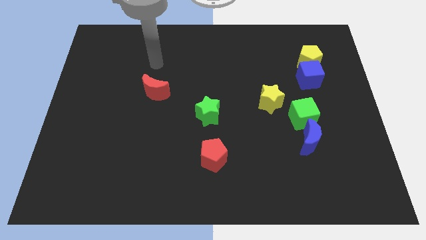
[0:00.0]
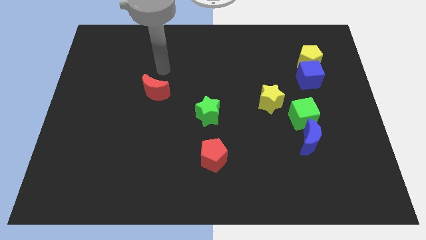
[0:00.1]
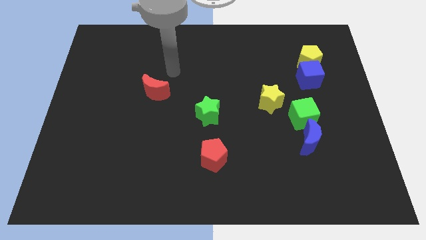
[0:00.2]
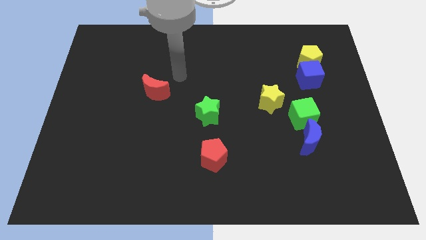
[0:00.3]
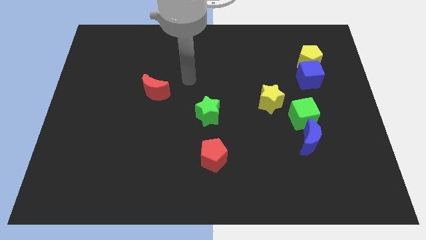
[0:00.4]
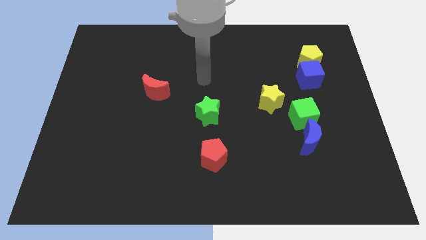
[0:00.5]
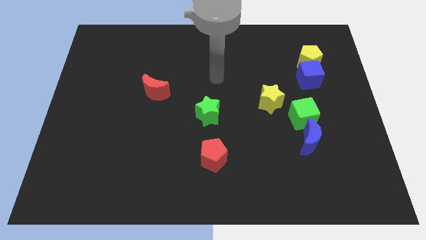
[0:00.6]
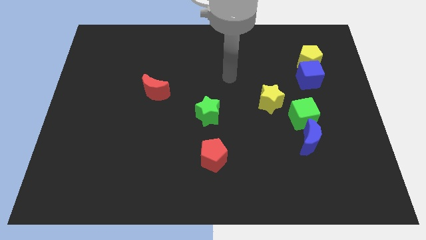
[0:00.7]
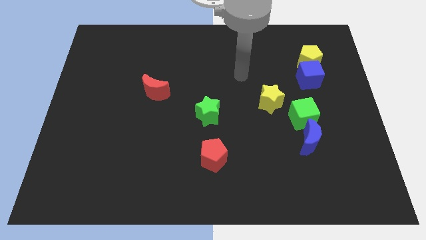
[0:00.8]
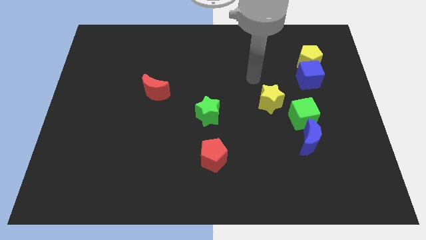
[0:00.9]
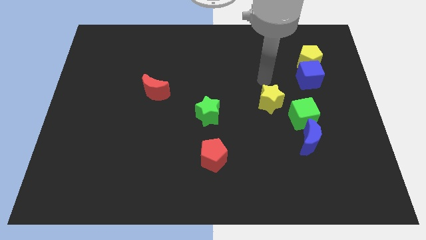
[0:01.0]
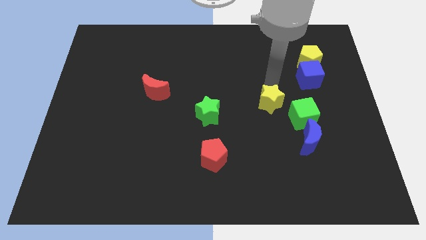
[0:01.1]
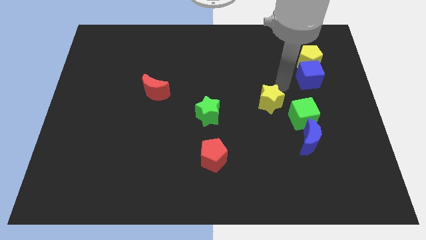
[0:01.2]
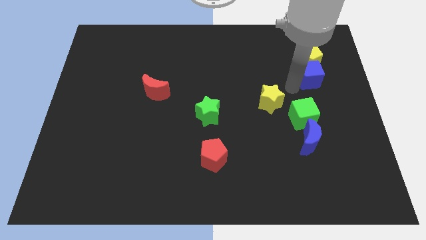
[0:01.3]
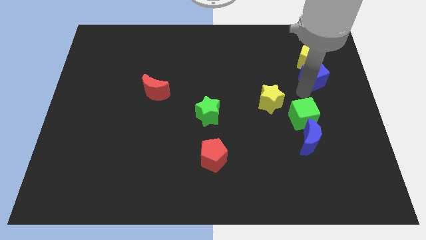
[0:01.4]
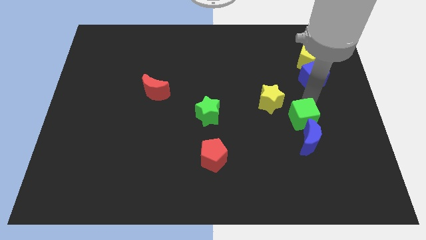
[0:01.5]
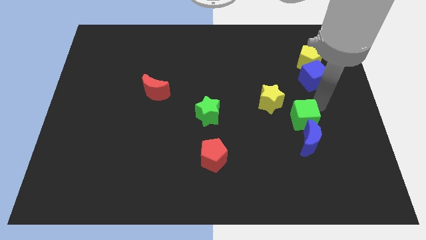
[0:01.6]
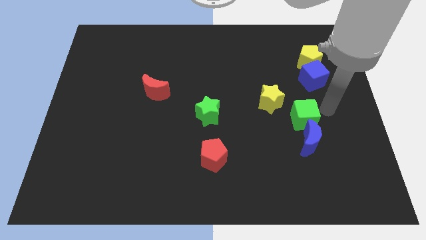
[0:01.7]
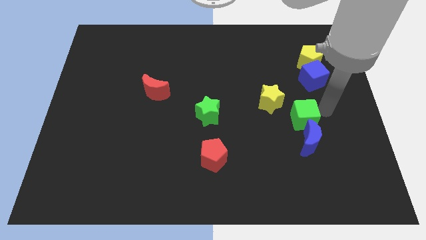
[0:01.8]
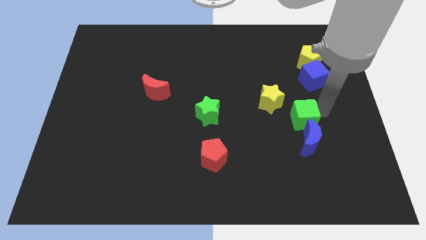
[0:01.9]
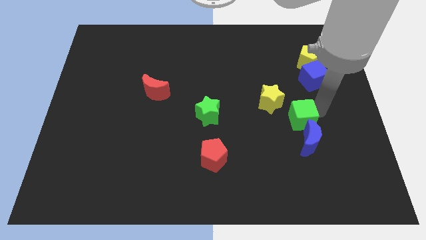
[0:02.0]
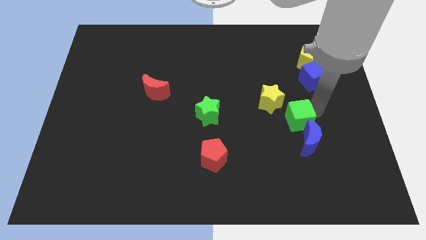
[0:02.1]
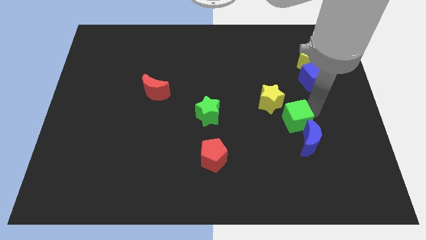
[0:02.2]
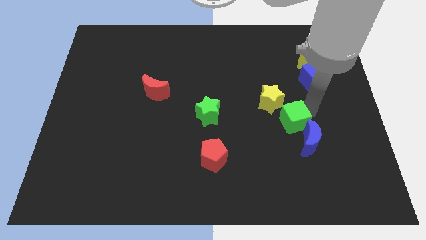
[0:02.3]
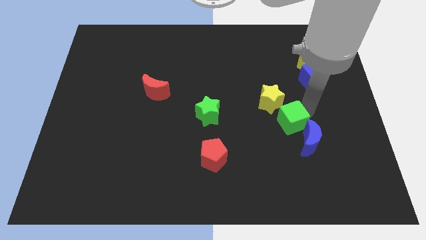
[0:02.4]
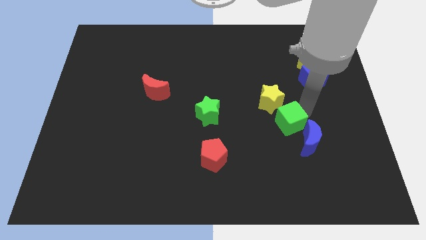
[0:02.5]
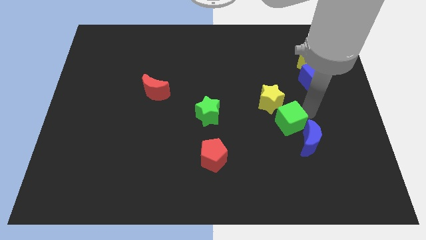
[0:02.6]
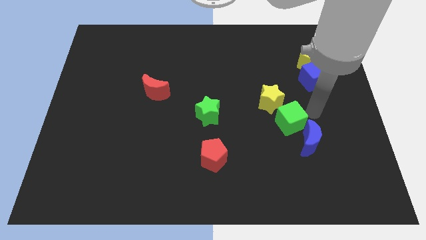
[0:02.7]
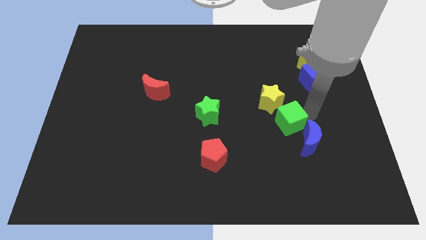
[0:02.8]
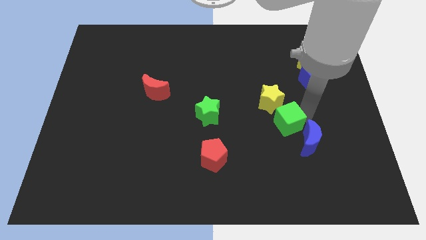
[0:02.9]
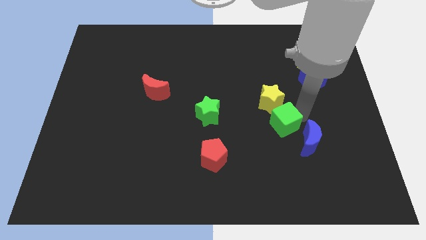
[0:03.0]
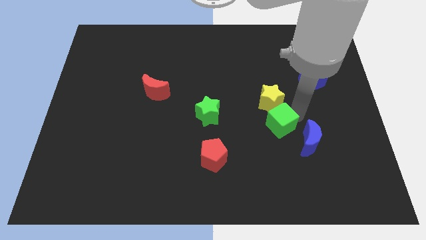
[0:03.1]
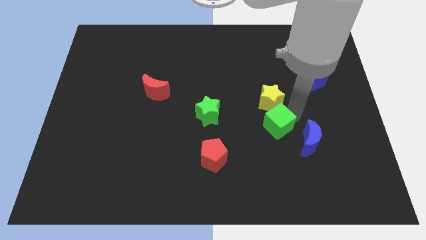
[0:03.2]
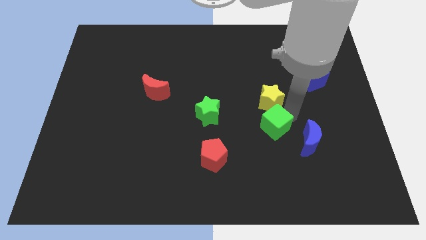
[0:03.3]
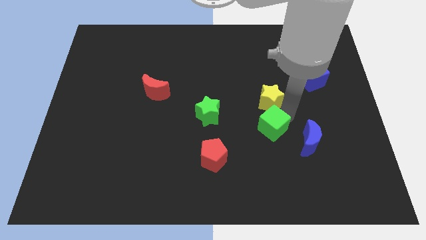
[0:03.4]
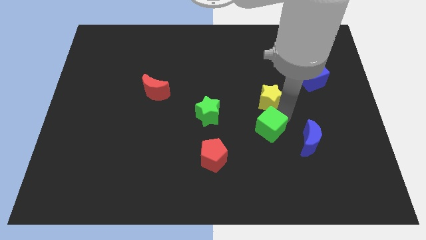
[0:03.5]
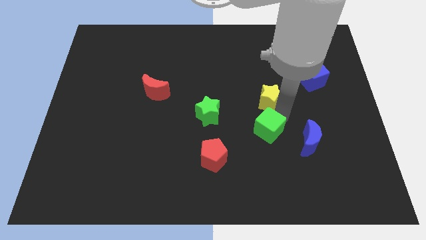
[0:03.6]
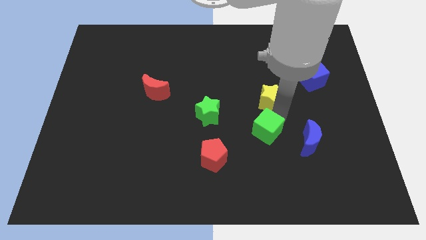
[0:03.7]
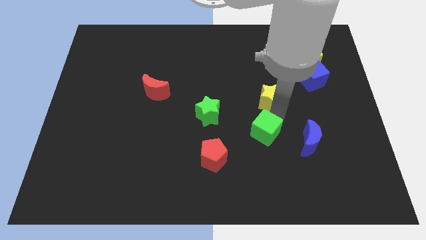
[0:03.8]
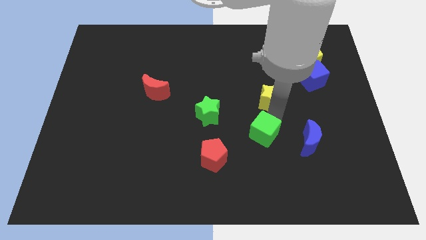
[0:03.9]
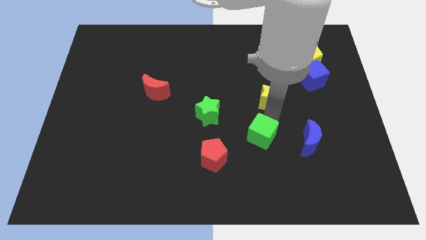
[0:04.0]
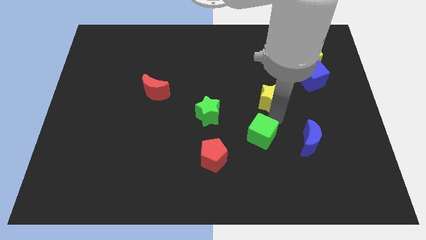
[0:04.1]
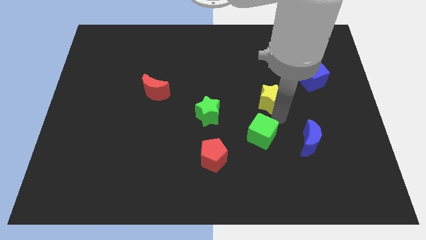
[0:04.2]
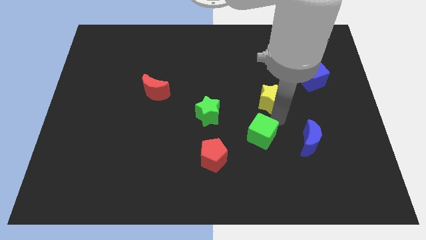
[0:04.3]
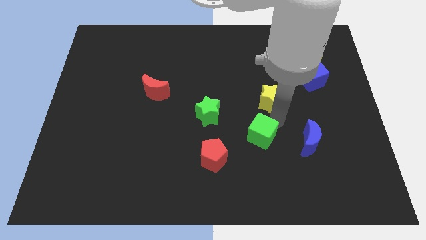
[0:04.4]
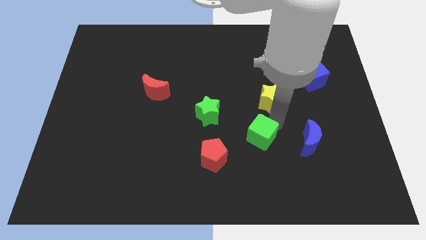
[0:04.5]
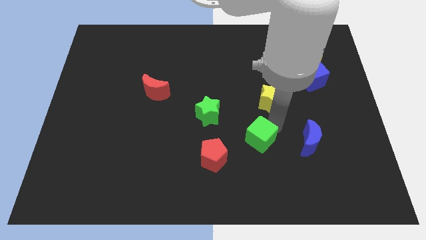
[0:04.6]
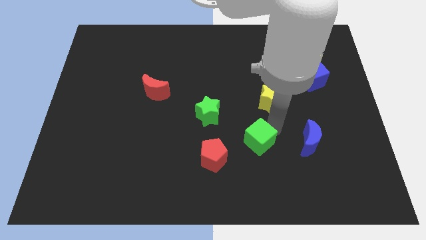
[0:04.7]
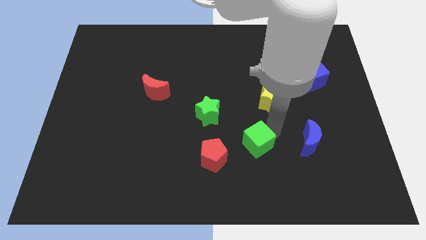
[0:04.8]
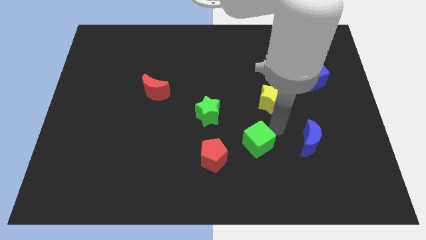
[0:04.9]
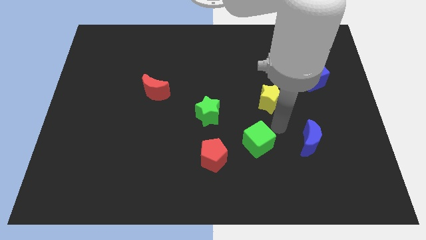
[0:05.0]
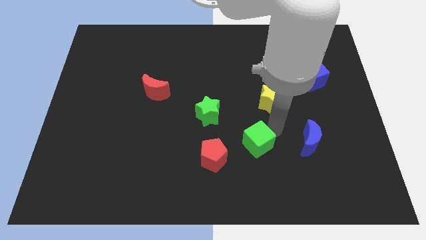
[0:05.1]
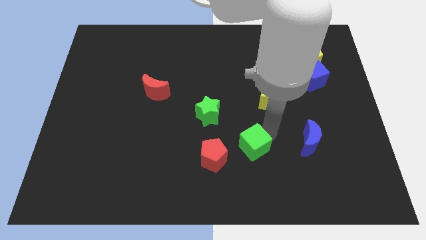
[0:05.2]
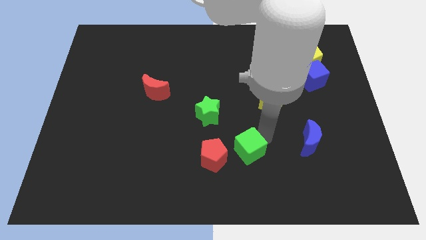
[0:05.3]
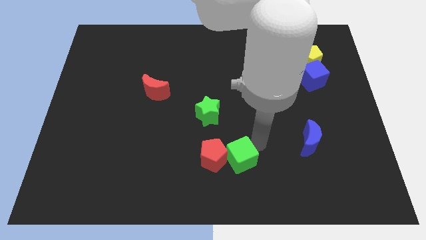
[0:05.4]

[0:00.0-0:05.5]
move the green cube next to the red pentagon

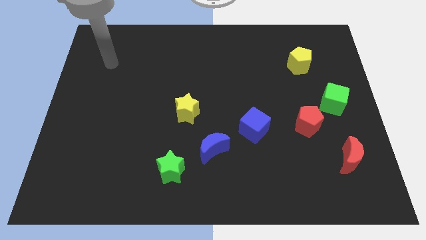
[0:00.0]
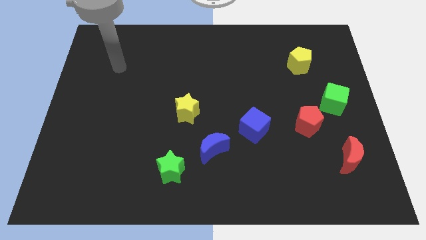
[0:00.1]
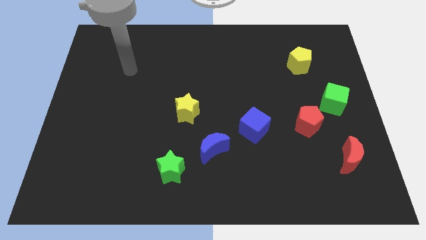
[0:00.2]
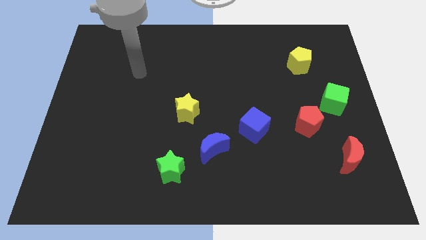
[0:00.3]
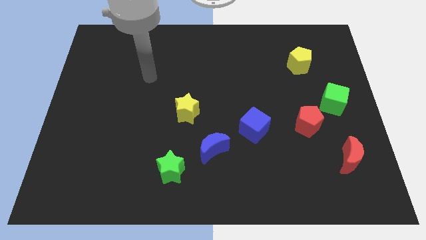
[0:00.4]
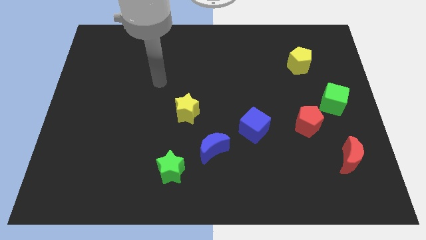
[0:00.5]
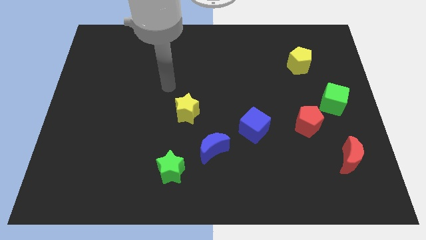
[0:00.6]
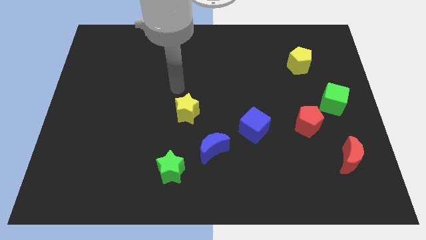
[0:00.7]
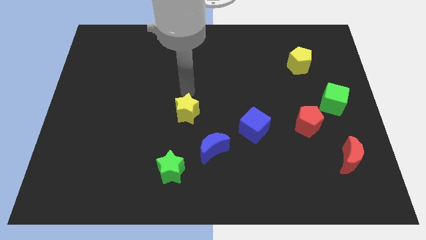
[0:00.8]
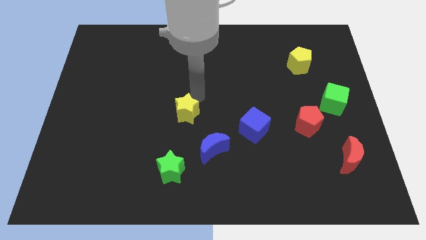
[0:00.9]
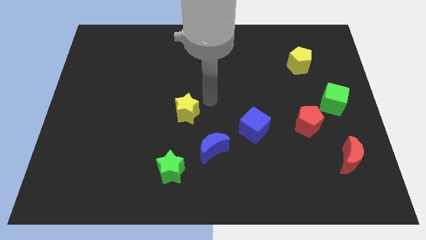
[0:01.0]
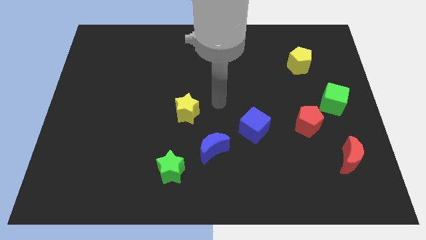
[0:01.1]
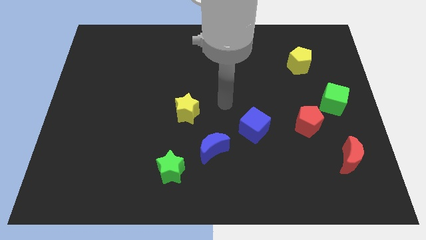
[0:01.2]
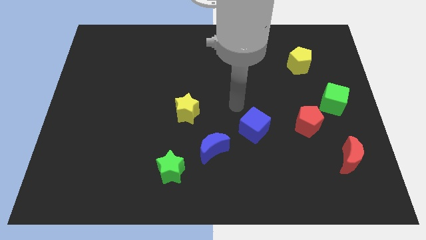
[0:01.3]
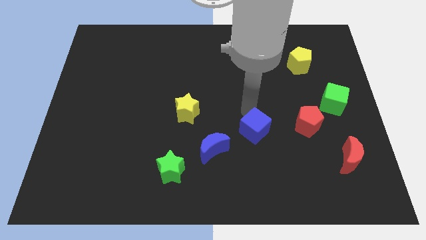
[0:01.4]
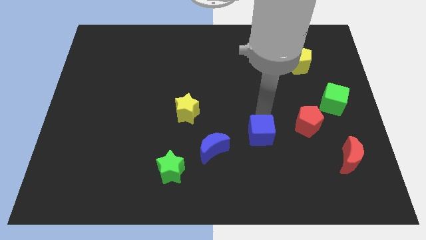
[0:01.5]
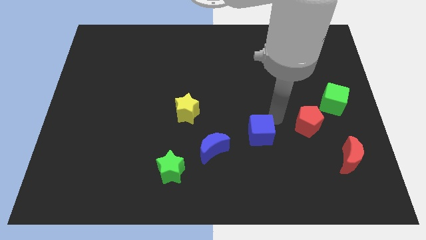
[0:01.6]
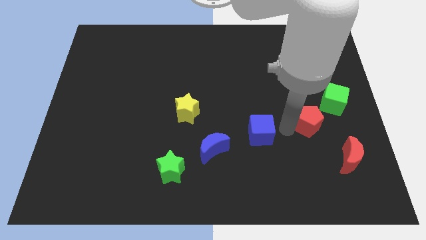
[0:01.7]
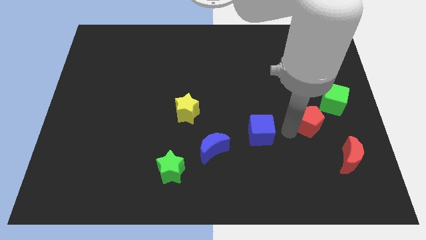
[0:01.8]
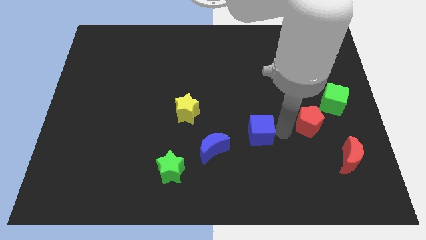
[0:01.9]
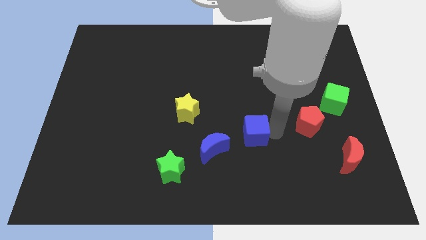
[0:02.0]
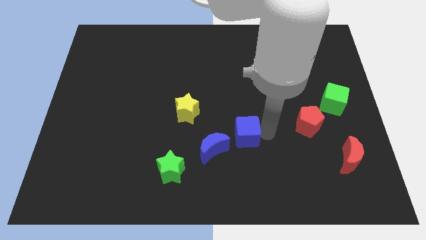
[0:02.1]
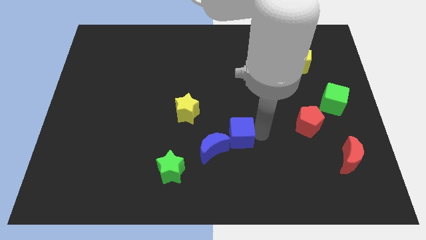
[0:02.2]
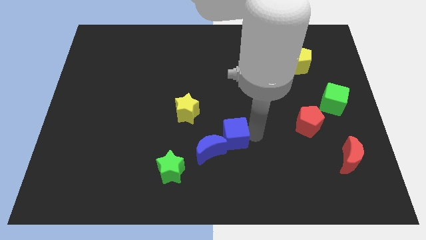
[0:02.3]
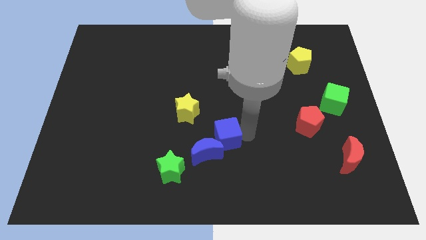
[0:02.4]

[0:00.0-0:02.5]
slide the blue cube next to the blue moon
